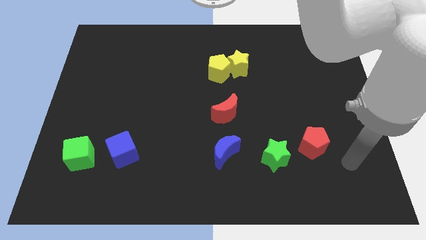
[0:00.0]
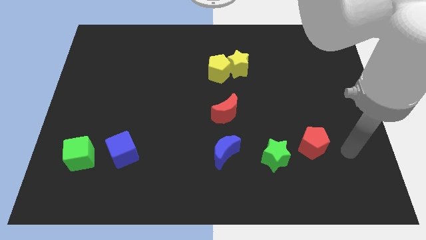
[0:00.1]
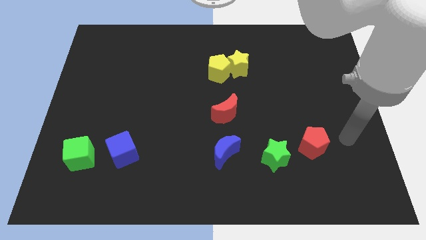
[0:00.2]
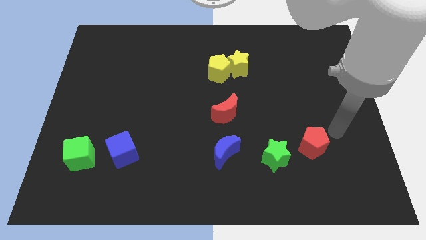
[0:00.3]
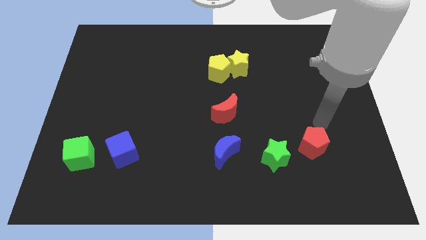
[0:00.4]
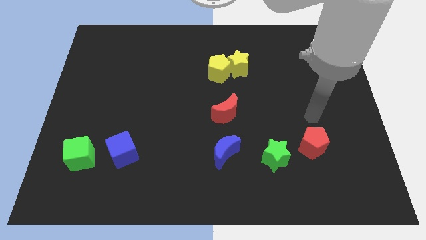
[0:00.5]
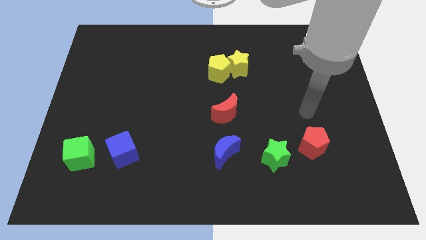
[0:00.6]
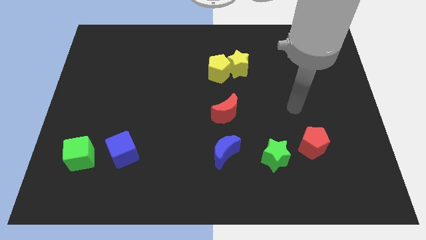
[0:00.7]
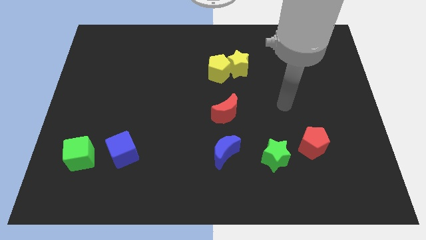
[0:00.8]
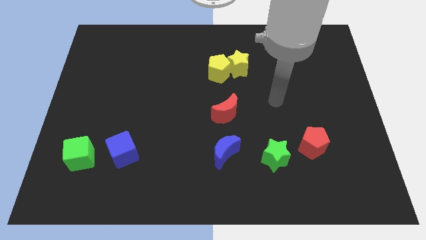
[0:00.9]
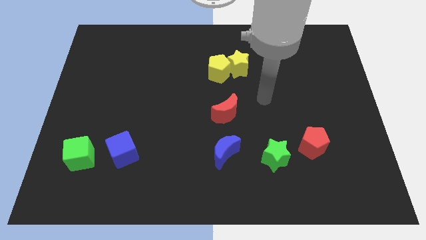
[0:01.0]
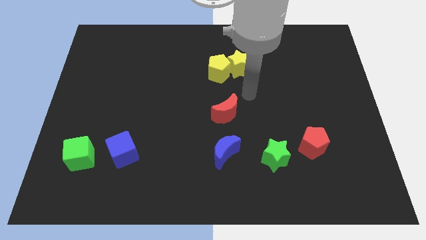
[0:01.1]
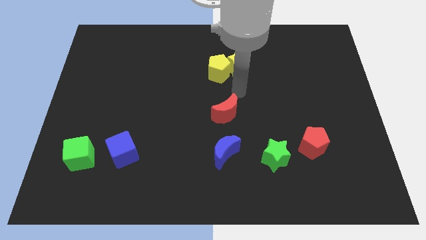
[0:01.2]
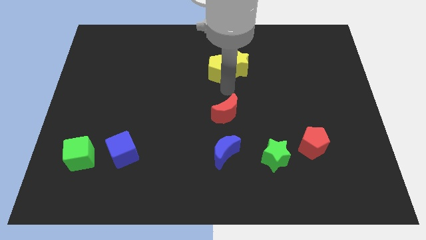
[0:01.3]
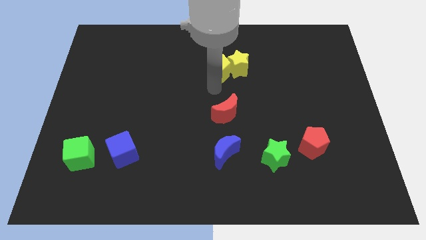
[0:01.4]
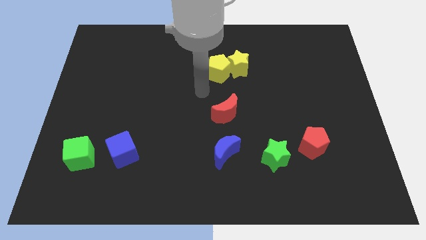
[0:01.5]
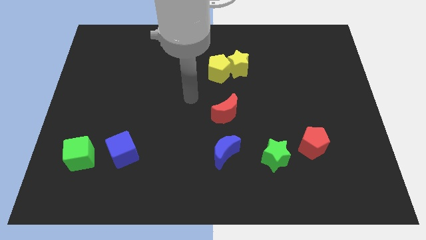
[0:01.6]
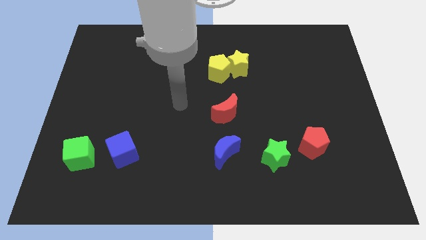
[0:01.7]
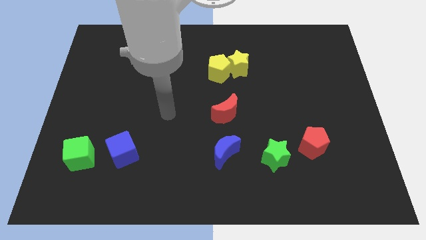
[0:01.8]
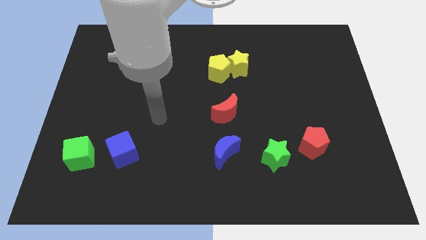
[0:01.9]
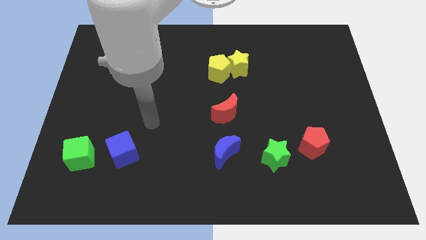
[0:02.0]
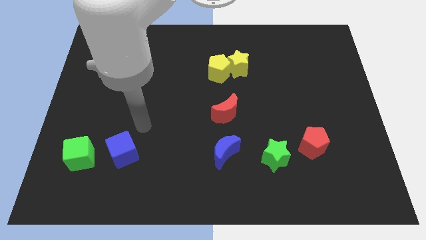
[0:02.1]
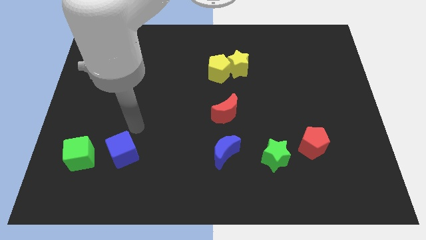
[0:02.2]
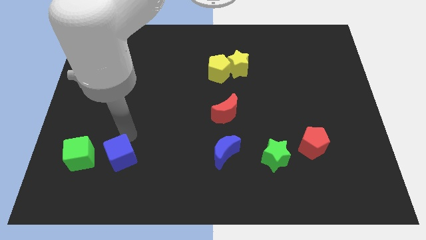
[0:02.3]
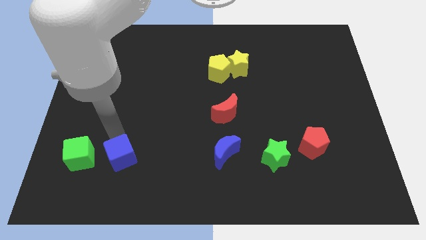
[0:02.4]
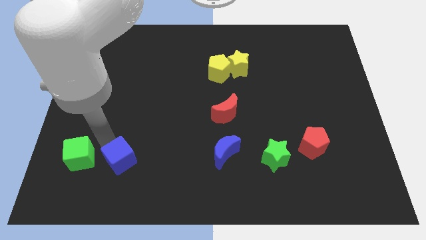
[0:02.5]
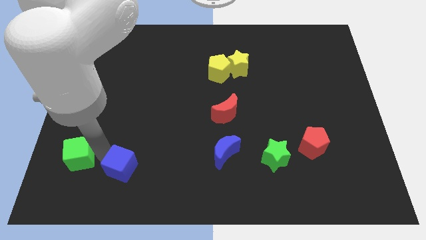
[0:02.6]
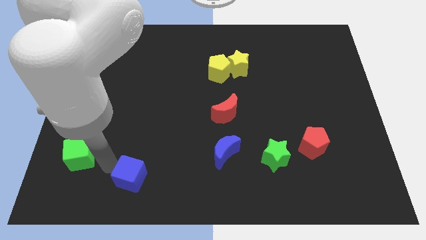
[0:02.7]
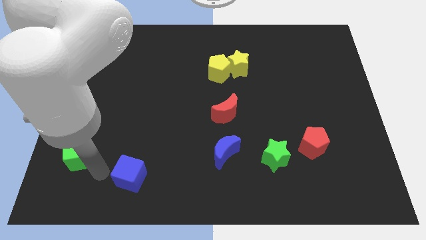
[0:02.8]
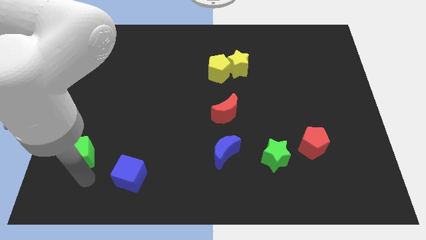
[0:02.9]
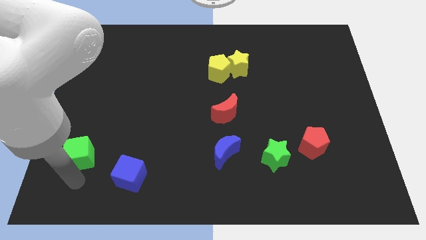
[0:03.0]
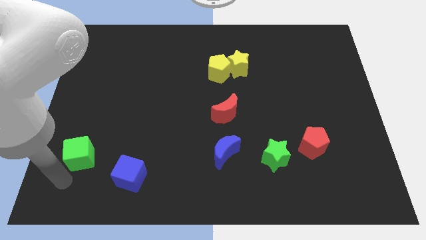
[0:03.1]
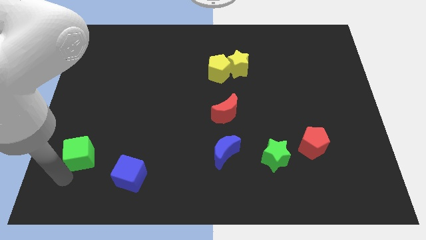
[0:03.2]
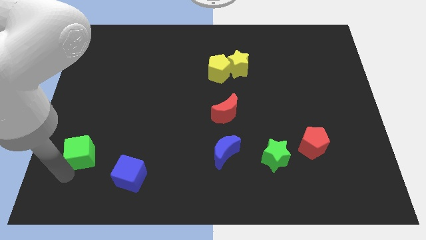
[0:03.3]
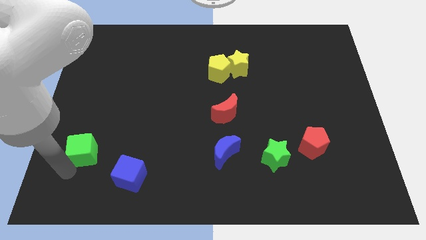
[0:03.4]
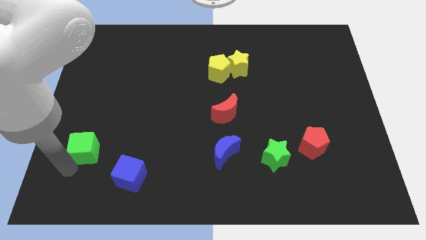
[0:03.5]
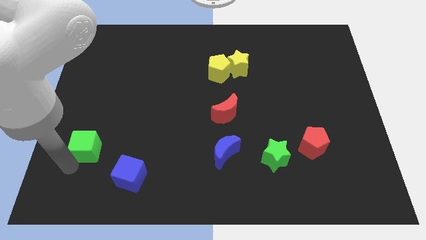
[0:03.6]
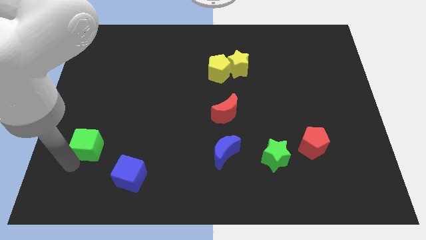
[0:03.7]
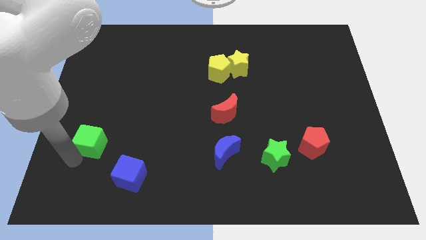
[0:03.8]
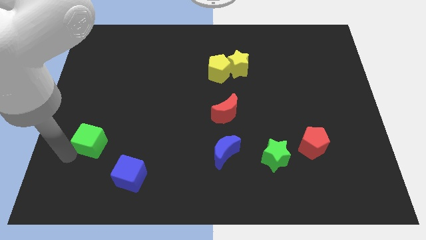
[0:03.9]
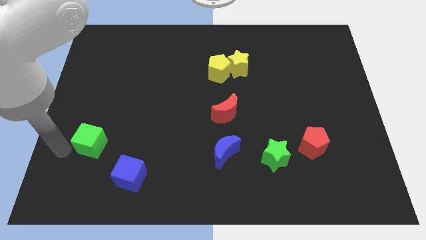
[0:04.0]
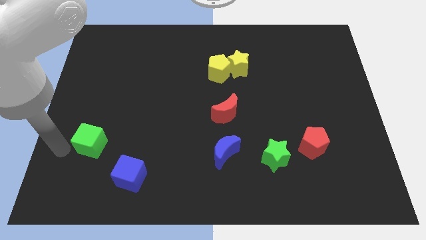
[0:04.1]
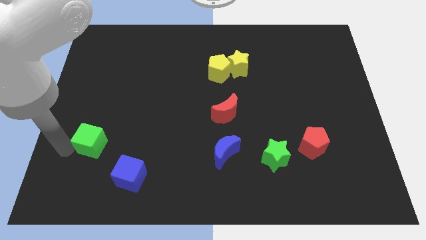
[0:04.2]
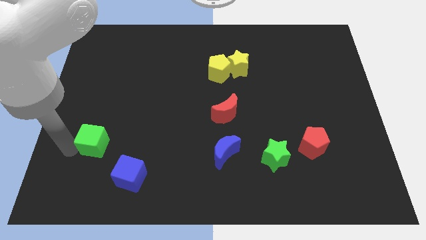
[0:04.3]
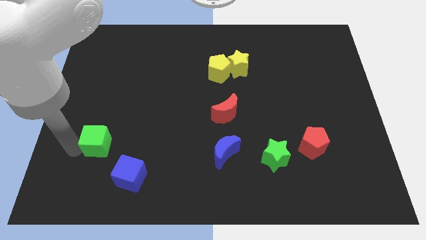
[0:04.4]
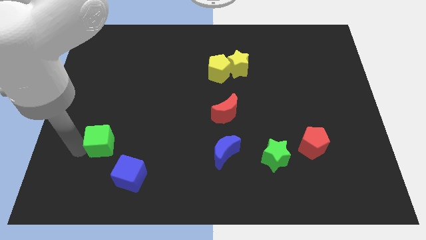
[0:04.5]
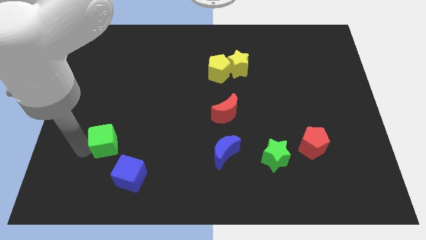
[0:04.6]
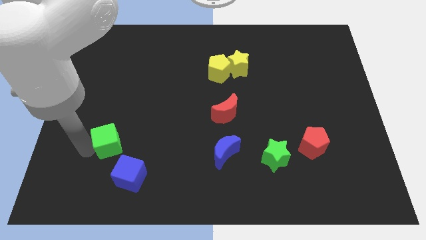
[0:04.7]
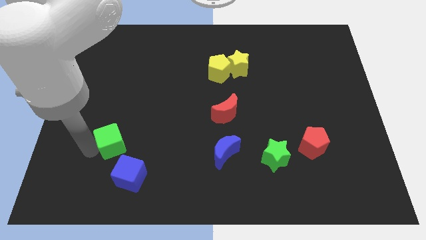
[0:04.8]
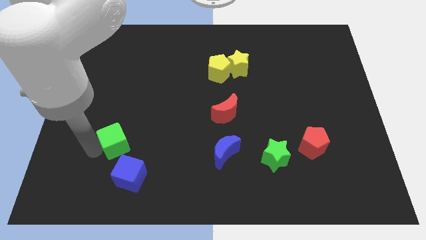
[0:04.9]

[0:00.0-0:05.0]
slide the green cube to the top of the blue cube
